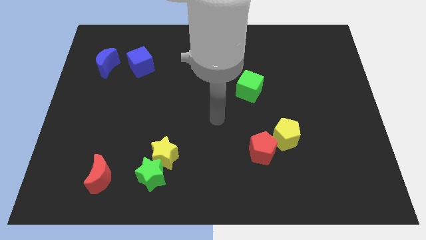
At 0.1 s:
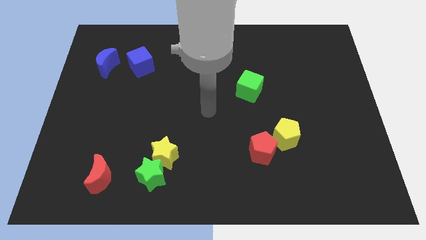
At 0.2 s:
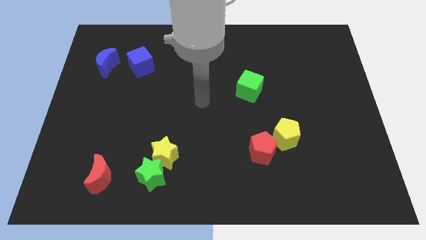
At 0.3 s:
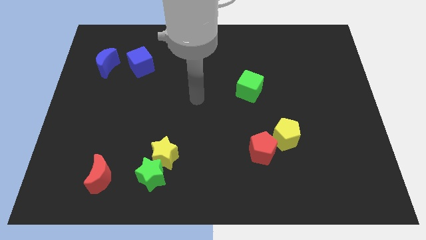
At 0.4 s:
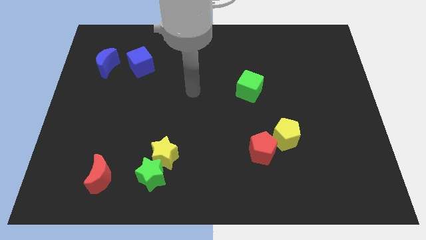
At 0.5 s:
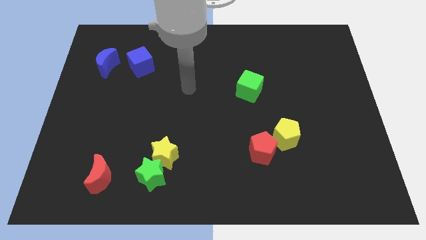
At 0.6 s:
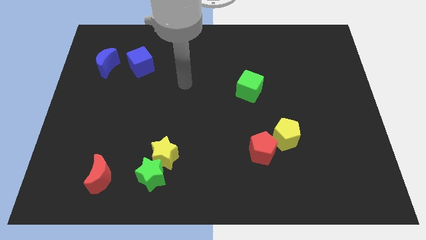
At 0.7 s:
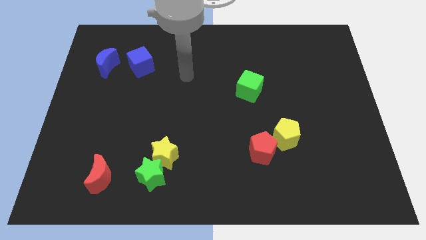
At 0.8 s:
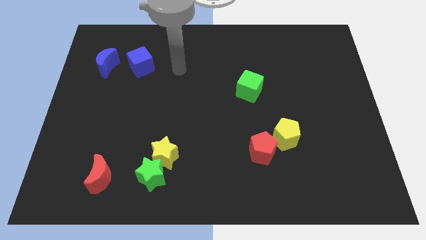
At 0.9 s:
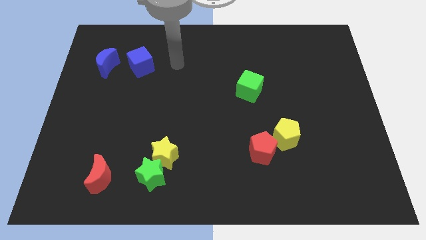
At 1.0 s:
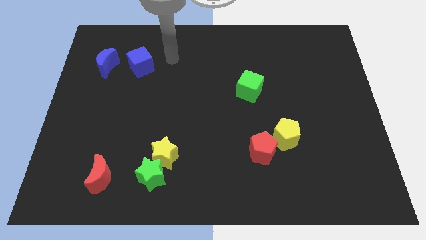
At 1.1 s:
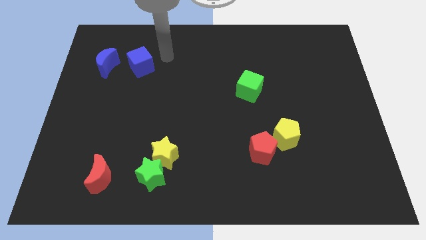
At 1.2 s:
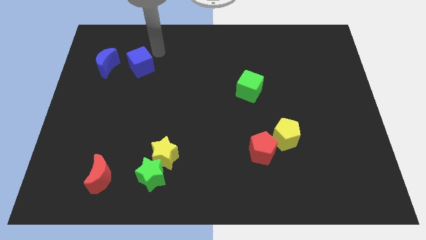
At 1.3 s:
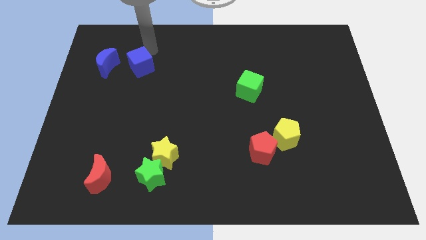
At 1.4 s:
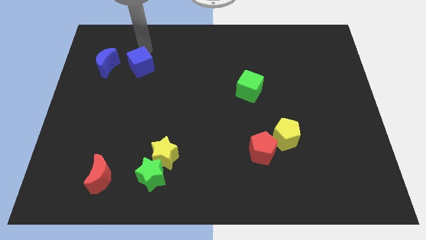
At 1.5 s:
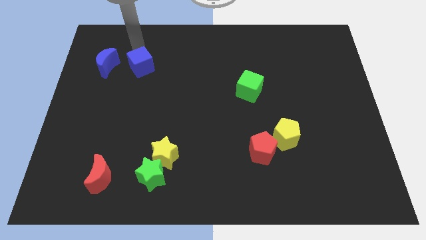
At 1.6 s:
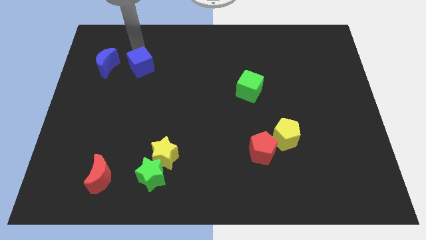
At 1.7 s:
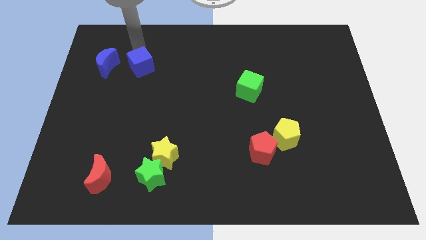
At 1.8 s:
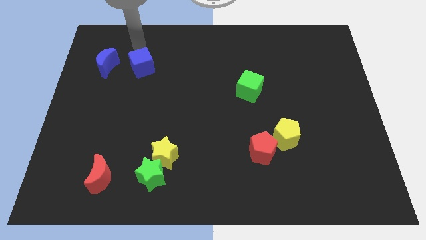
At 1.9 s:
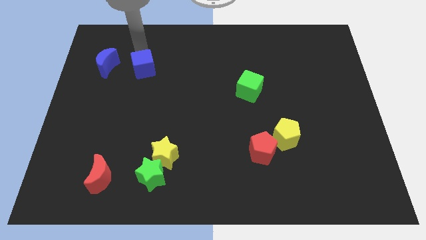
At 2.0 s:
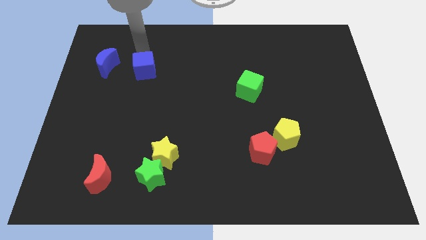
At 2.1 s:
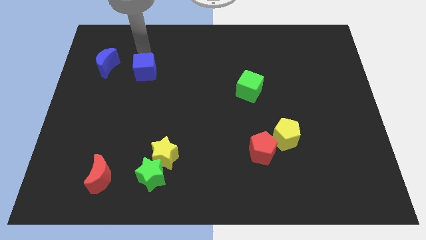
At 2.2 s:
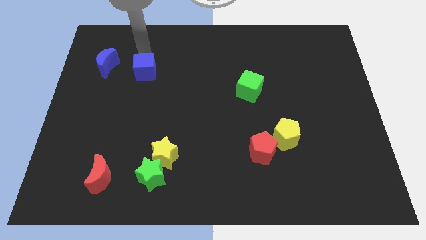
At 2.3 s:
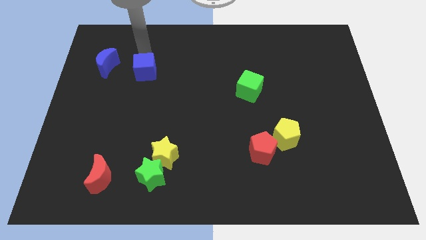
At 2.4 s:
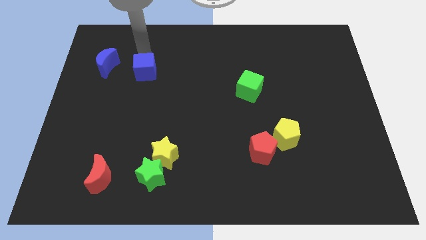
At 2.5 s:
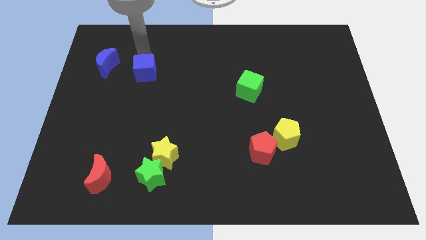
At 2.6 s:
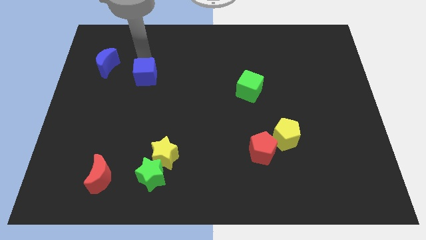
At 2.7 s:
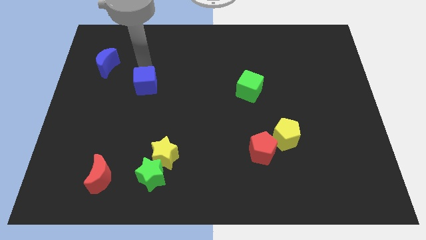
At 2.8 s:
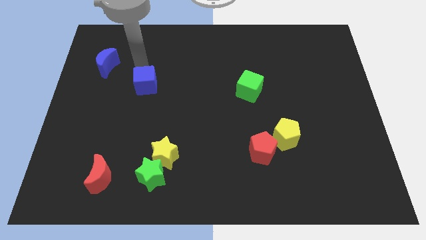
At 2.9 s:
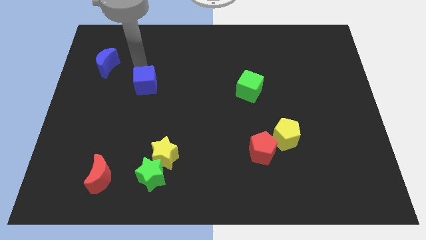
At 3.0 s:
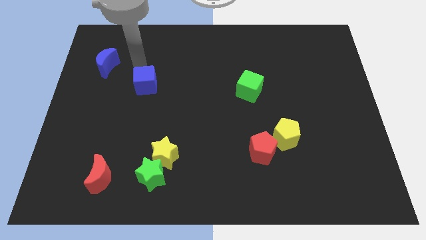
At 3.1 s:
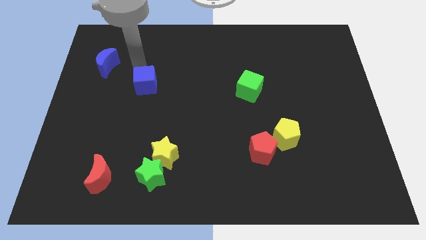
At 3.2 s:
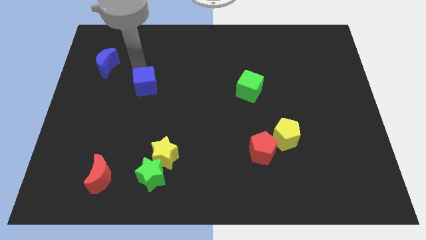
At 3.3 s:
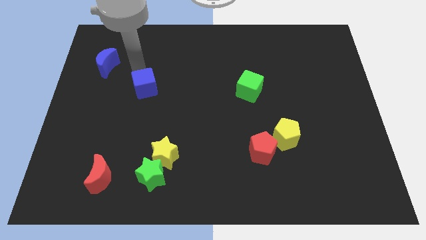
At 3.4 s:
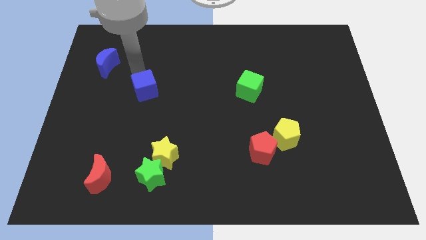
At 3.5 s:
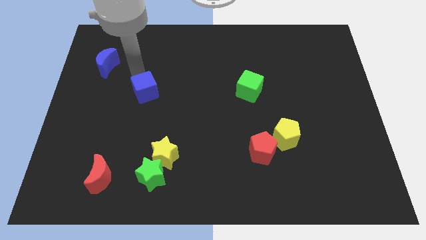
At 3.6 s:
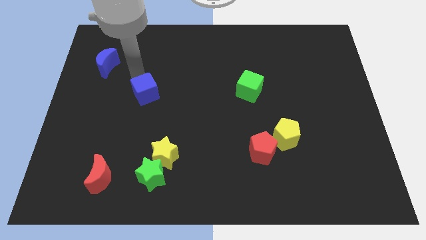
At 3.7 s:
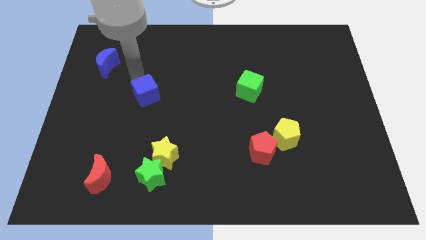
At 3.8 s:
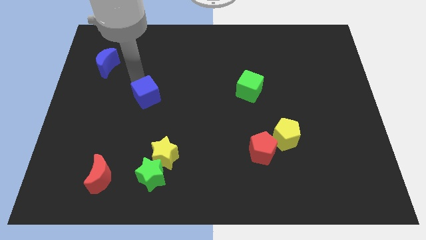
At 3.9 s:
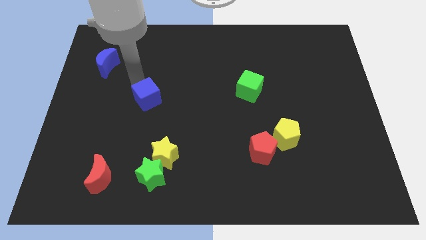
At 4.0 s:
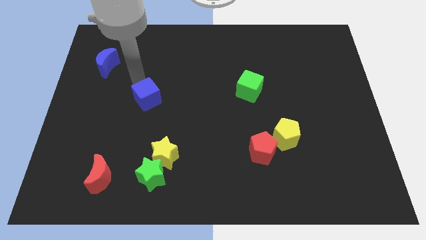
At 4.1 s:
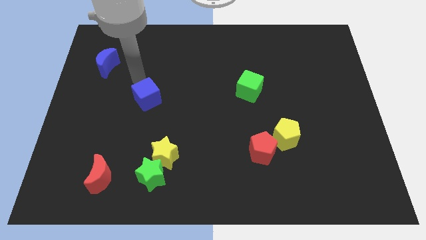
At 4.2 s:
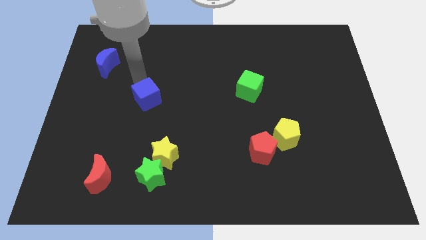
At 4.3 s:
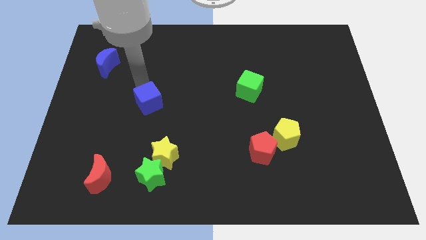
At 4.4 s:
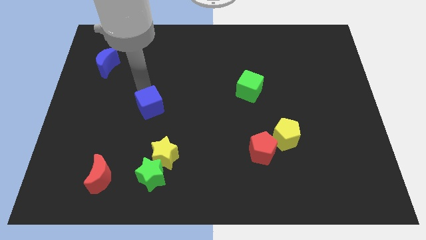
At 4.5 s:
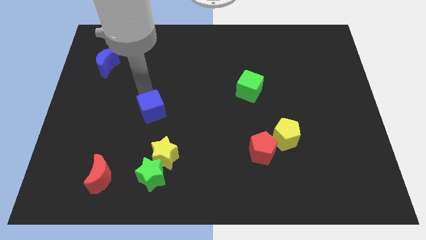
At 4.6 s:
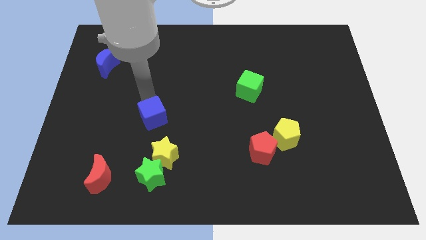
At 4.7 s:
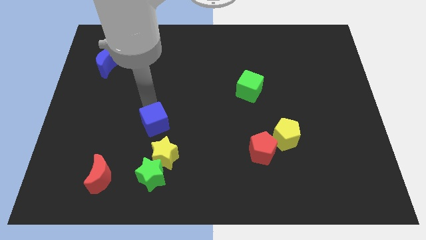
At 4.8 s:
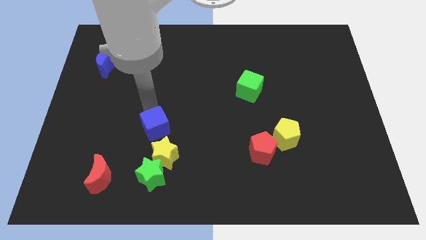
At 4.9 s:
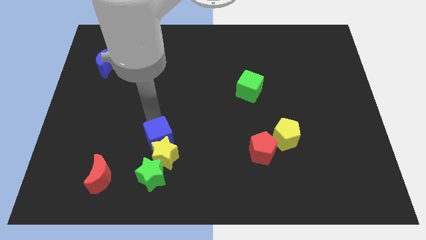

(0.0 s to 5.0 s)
slide the blue cube next to the yellow star

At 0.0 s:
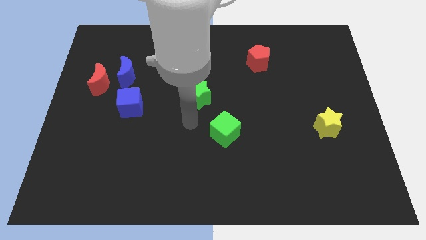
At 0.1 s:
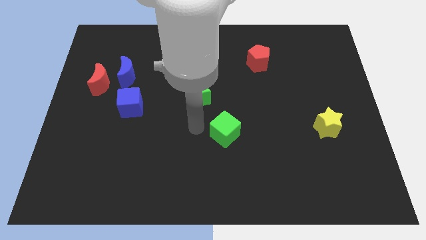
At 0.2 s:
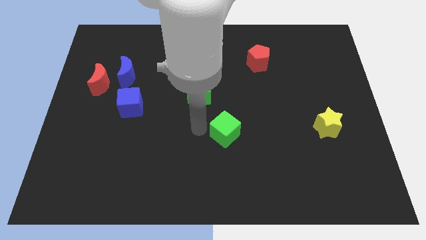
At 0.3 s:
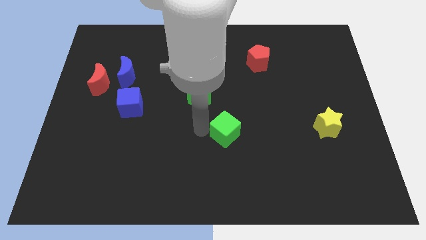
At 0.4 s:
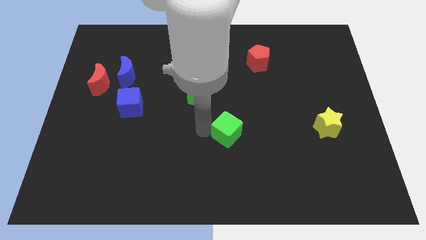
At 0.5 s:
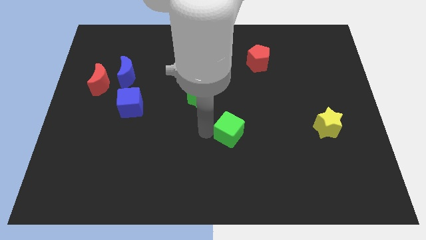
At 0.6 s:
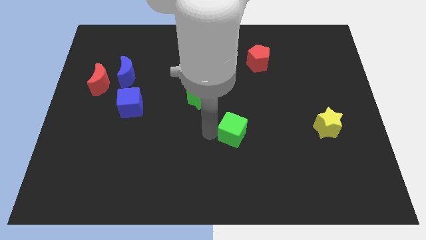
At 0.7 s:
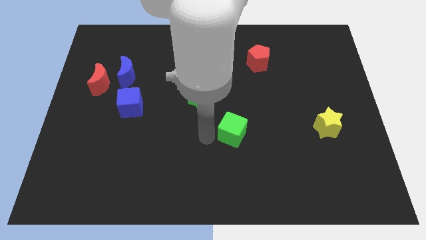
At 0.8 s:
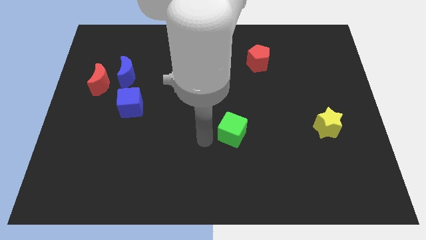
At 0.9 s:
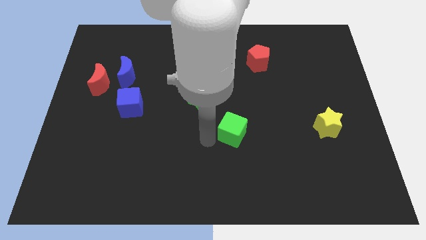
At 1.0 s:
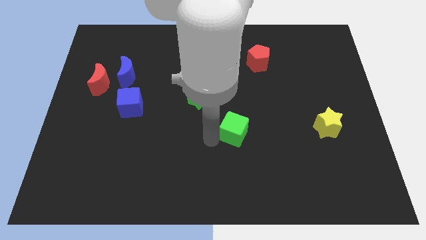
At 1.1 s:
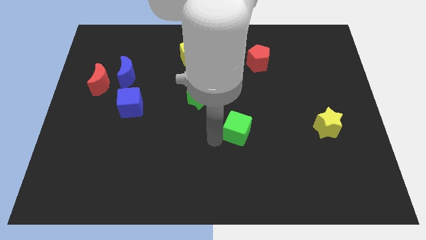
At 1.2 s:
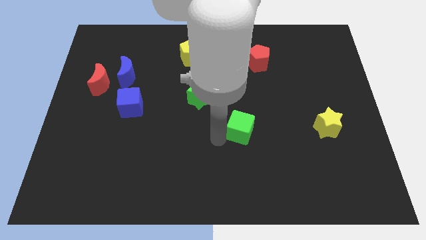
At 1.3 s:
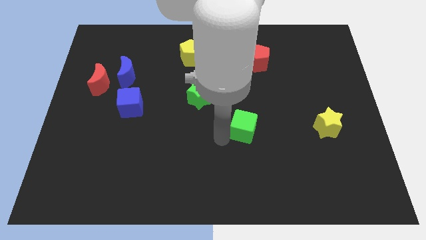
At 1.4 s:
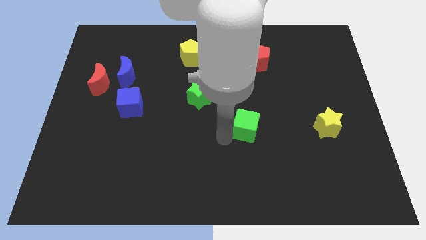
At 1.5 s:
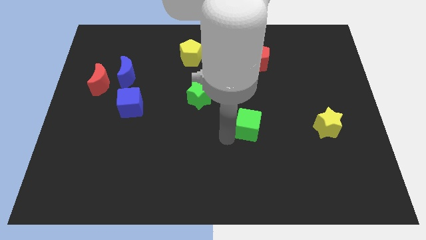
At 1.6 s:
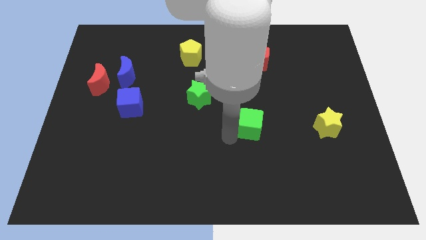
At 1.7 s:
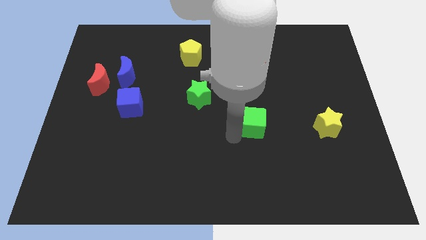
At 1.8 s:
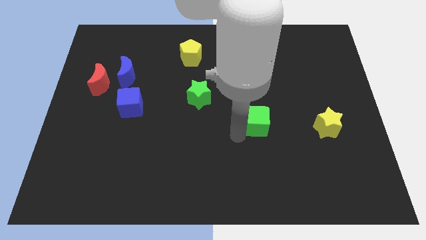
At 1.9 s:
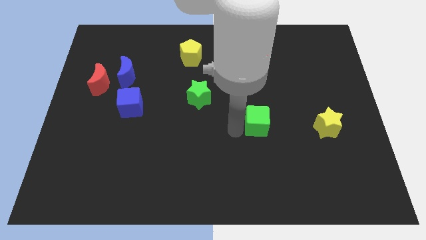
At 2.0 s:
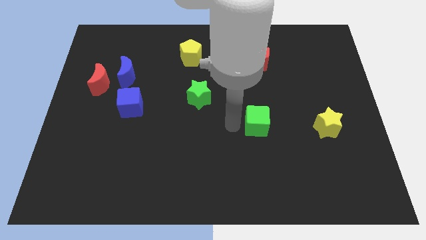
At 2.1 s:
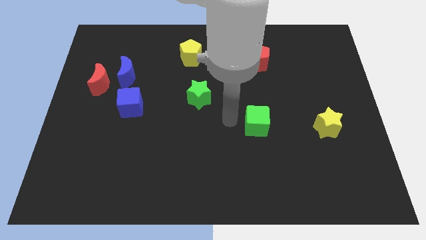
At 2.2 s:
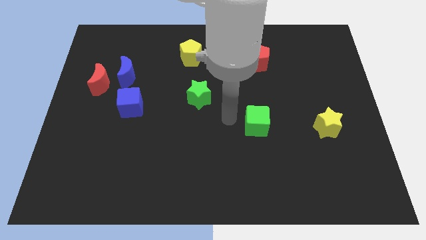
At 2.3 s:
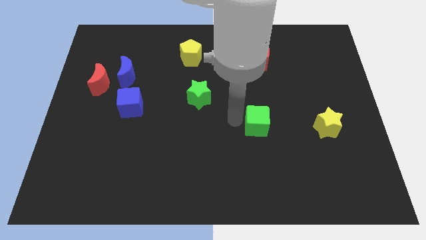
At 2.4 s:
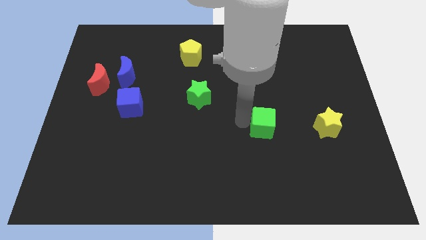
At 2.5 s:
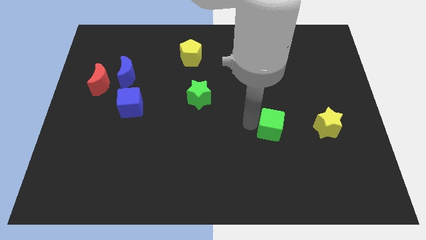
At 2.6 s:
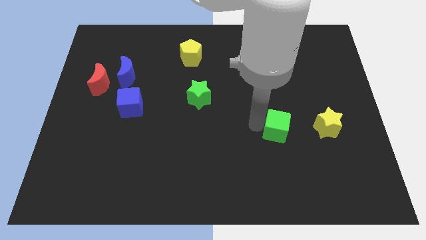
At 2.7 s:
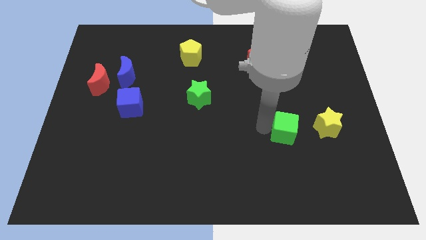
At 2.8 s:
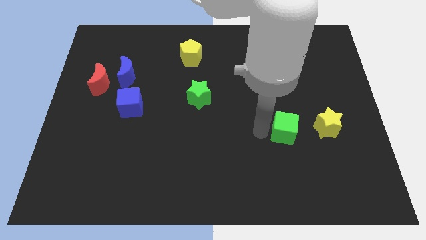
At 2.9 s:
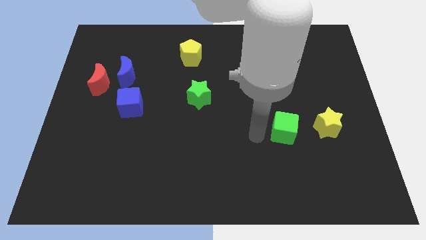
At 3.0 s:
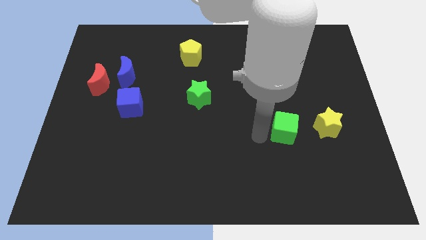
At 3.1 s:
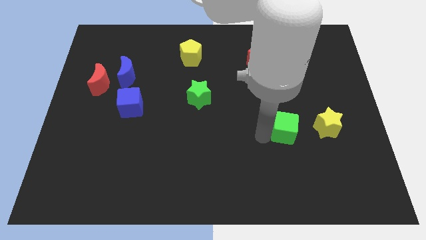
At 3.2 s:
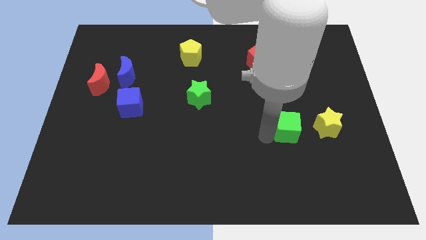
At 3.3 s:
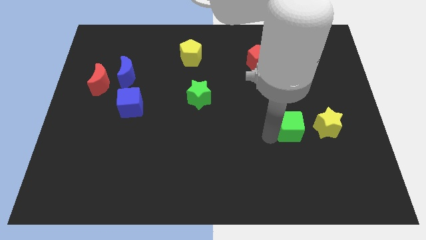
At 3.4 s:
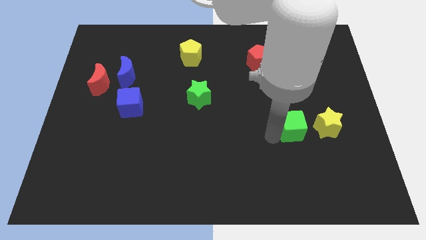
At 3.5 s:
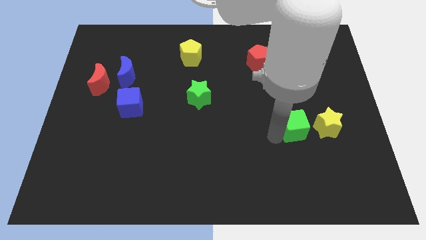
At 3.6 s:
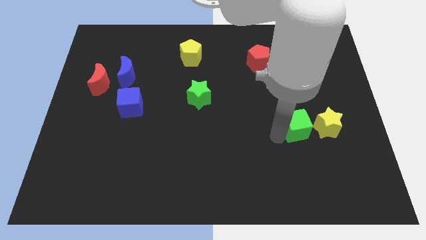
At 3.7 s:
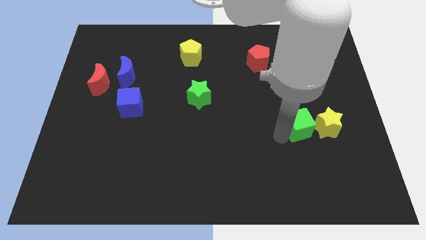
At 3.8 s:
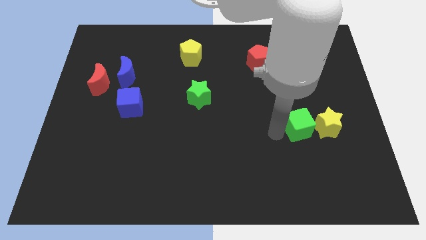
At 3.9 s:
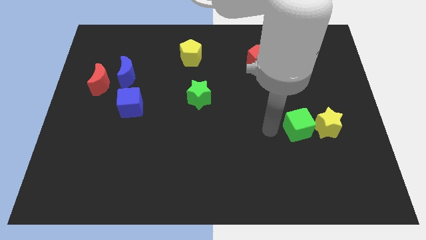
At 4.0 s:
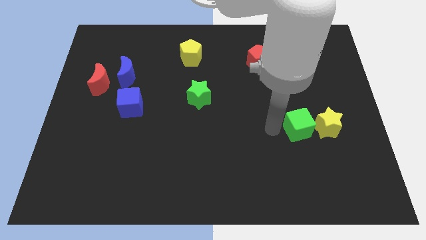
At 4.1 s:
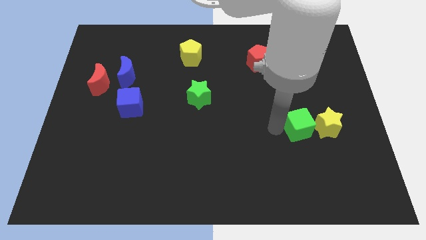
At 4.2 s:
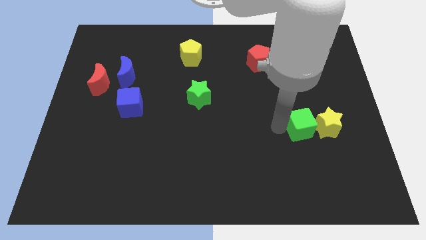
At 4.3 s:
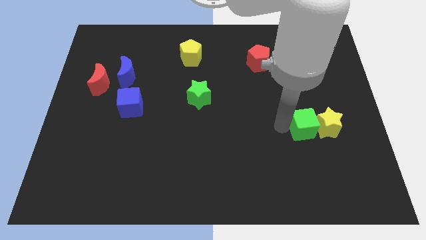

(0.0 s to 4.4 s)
move the green cube next to the yellow star
